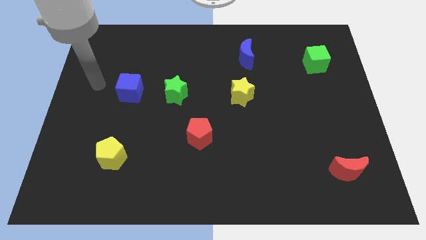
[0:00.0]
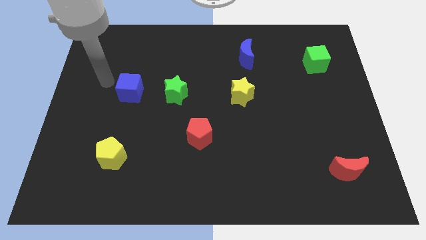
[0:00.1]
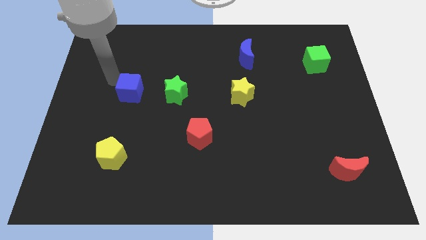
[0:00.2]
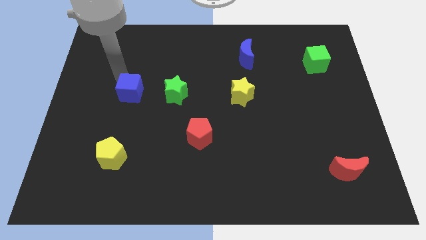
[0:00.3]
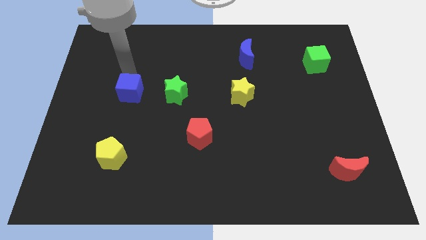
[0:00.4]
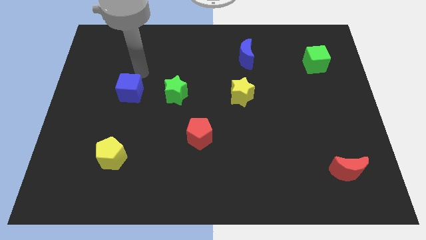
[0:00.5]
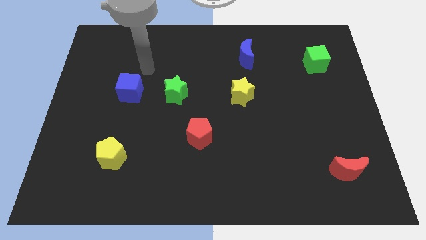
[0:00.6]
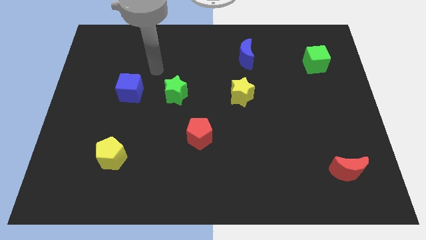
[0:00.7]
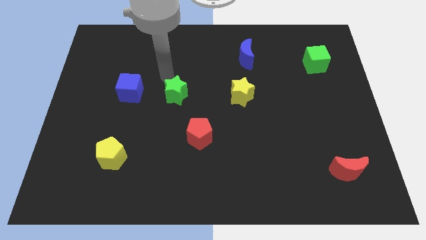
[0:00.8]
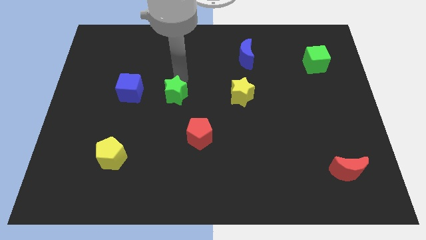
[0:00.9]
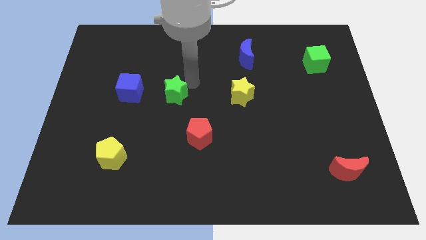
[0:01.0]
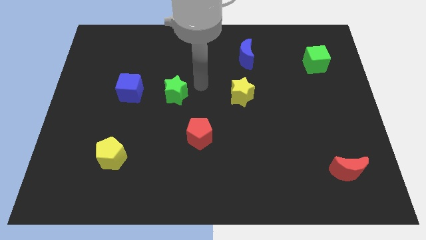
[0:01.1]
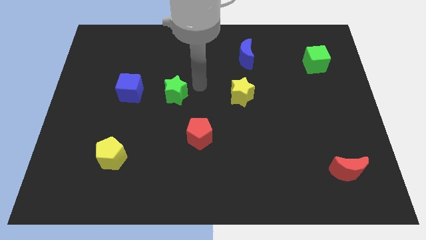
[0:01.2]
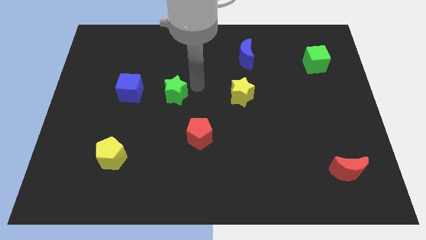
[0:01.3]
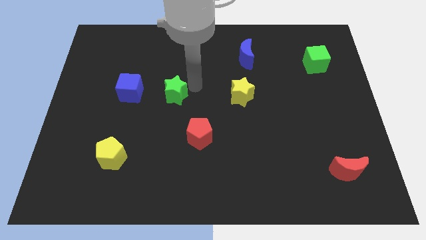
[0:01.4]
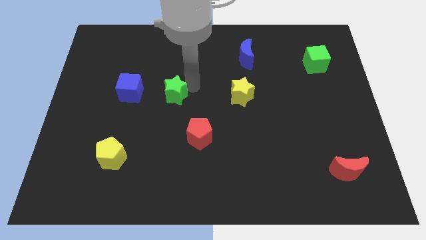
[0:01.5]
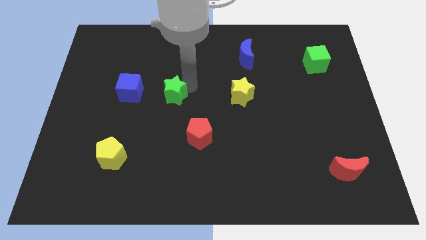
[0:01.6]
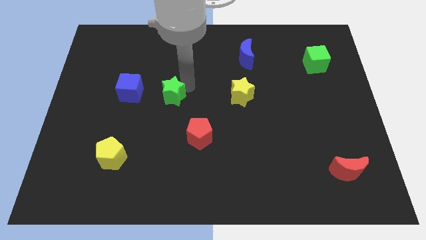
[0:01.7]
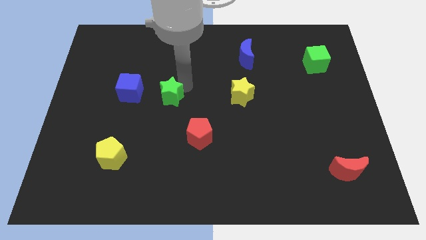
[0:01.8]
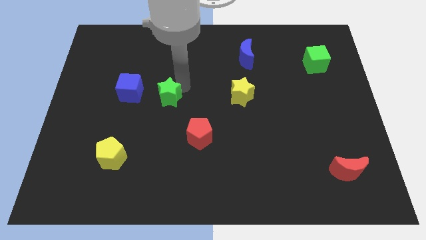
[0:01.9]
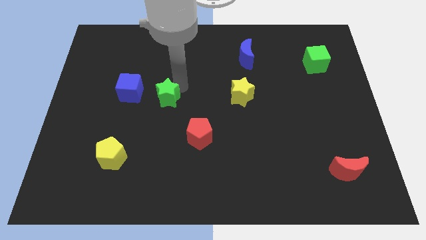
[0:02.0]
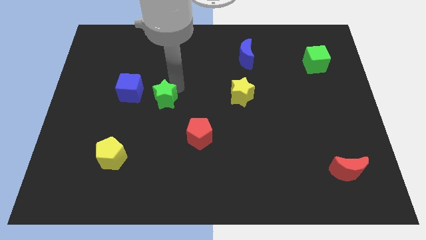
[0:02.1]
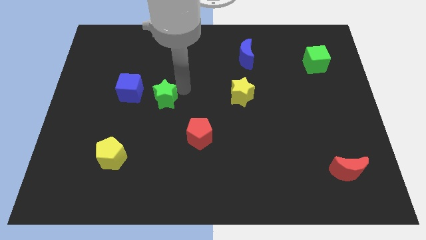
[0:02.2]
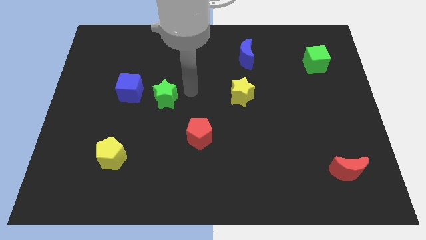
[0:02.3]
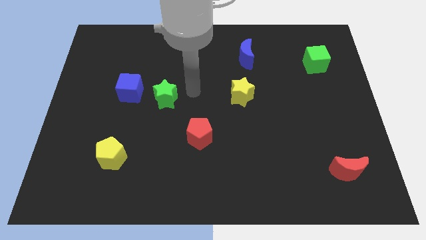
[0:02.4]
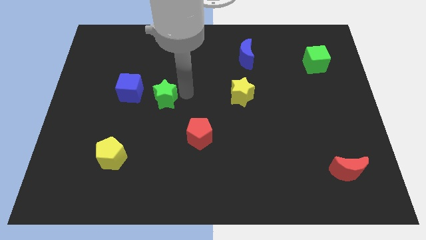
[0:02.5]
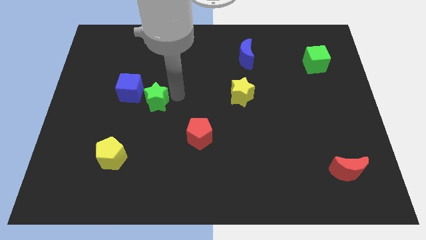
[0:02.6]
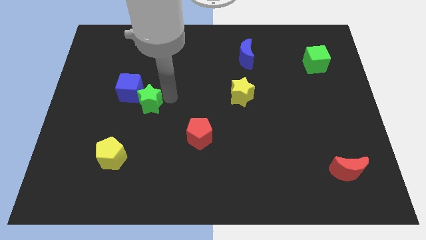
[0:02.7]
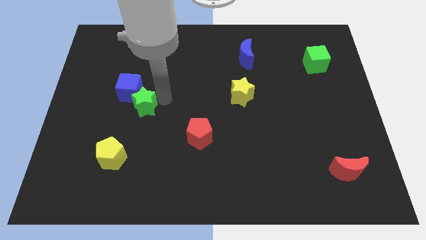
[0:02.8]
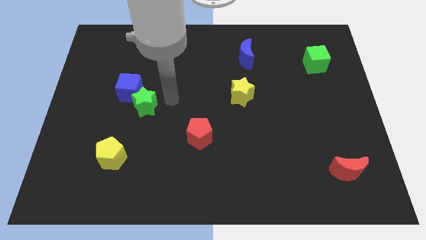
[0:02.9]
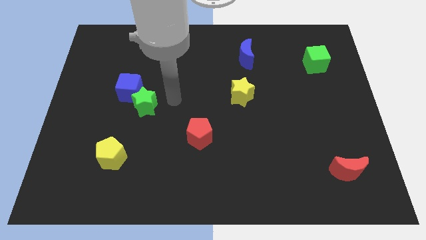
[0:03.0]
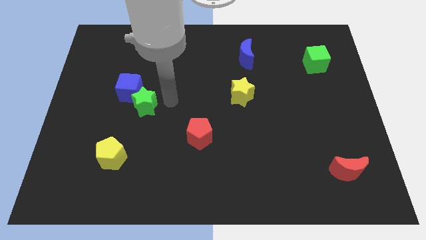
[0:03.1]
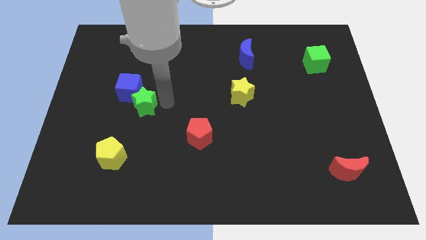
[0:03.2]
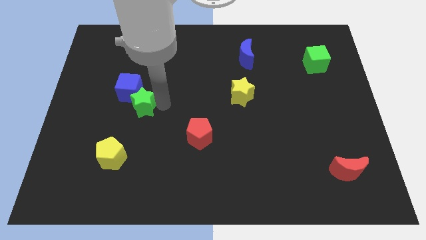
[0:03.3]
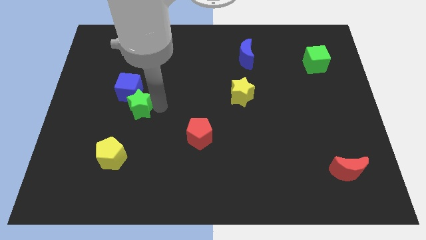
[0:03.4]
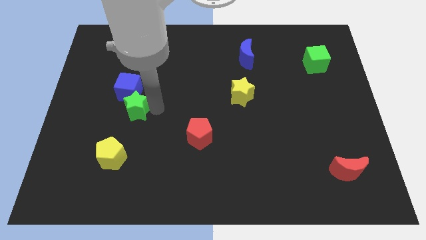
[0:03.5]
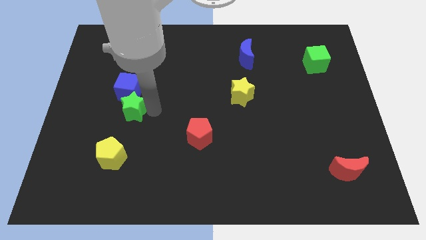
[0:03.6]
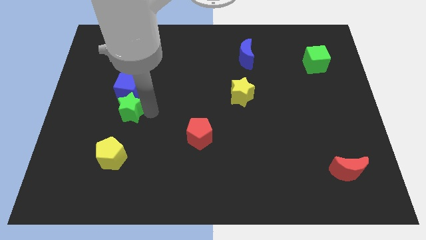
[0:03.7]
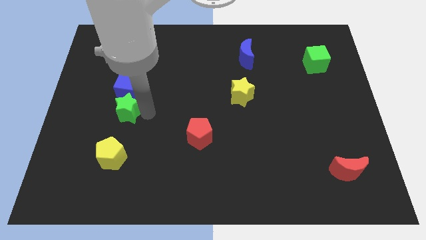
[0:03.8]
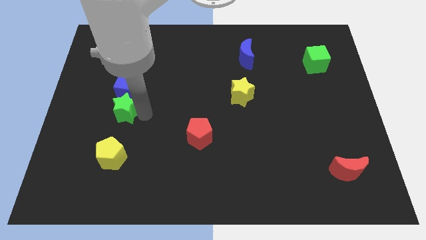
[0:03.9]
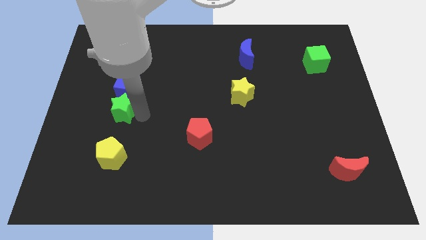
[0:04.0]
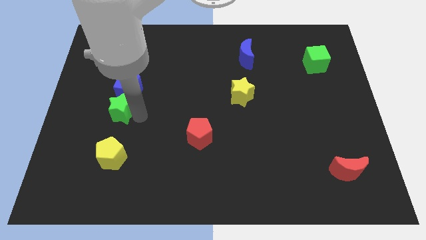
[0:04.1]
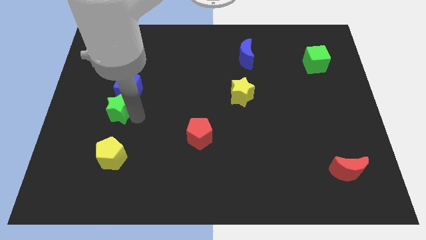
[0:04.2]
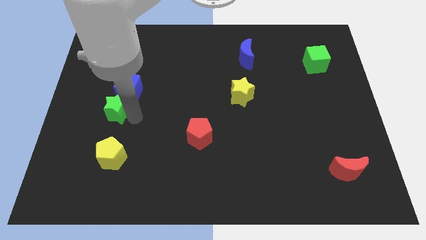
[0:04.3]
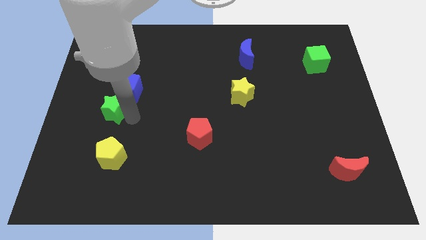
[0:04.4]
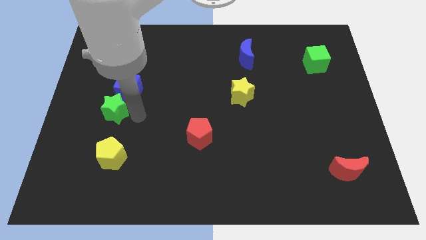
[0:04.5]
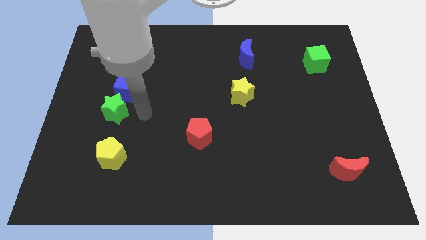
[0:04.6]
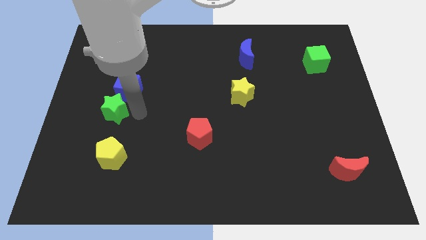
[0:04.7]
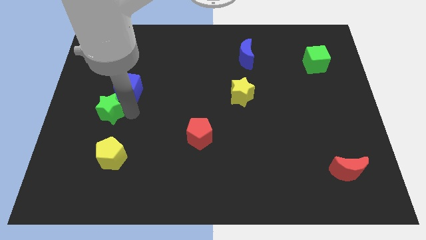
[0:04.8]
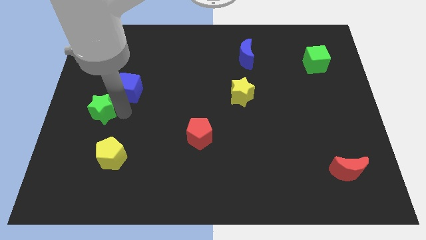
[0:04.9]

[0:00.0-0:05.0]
put the green star to the left side of the board

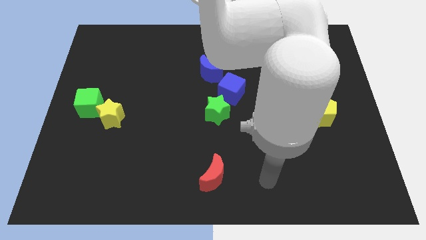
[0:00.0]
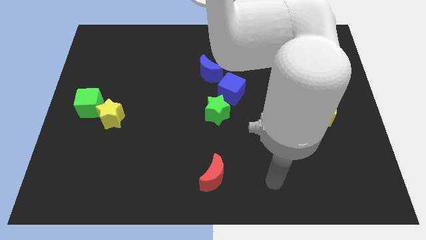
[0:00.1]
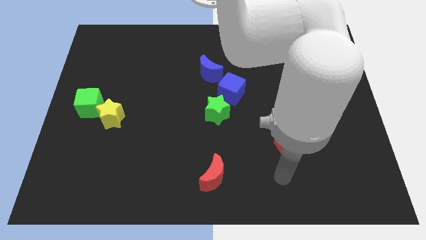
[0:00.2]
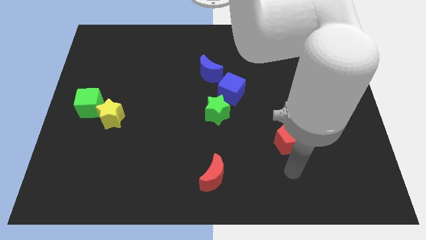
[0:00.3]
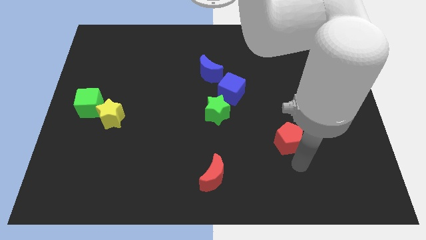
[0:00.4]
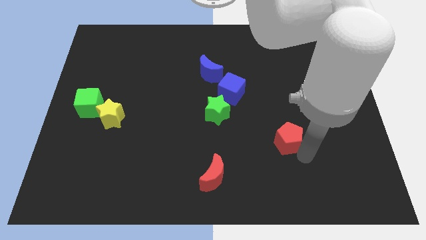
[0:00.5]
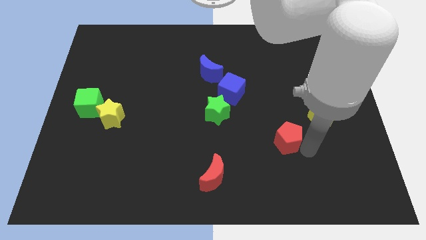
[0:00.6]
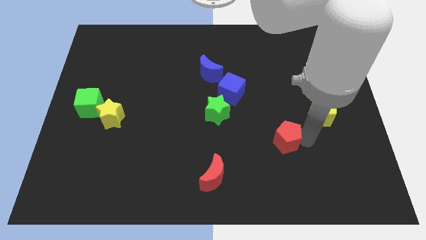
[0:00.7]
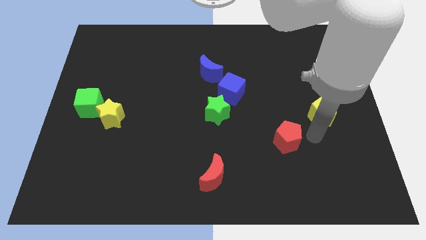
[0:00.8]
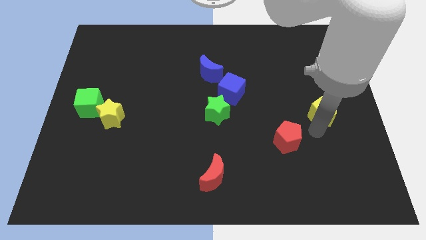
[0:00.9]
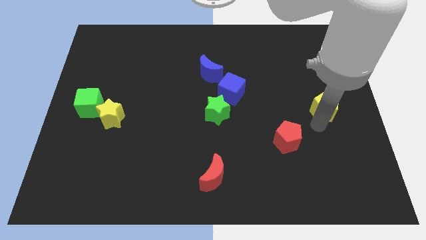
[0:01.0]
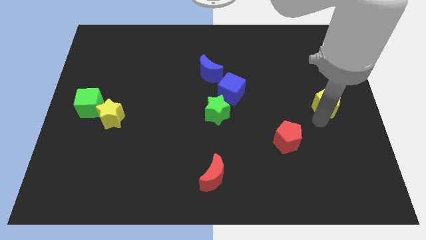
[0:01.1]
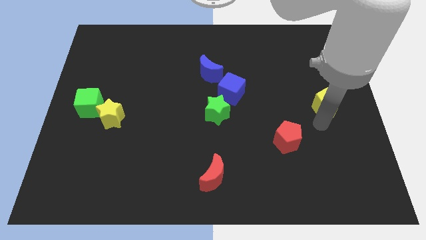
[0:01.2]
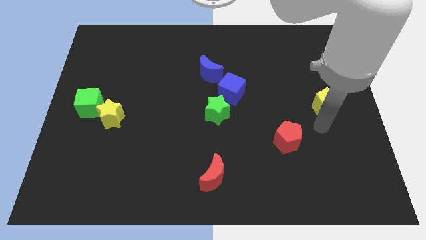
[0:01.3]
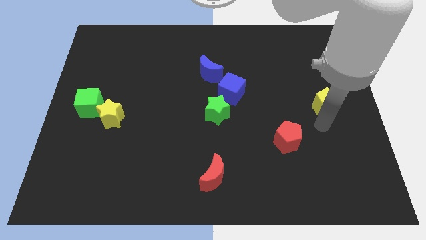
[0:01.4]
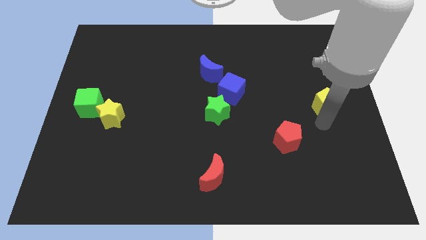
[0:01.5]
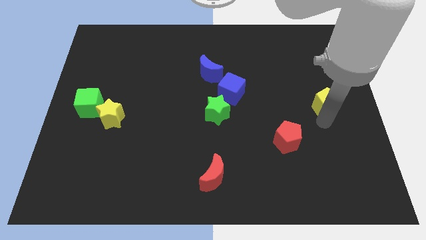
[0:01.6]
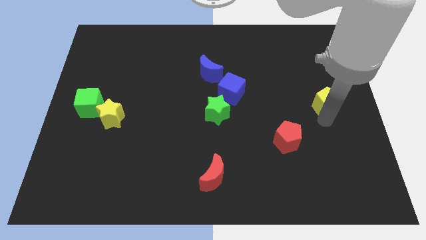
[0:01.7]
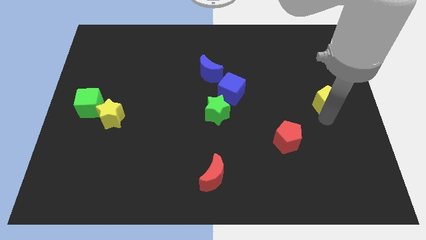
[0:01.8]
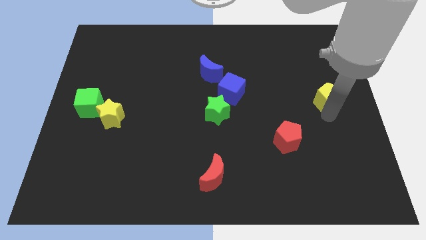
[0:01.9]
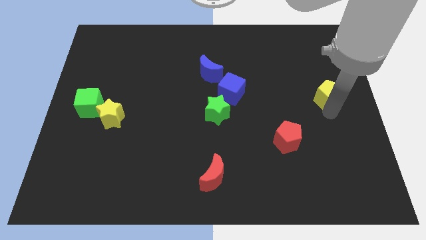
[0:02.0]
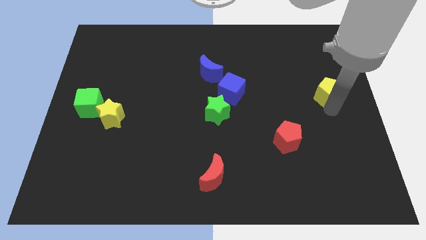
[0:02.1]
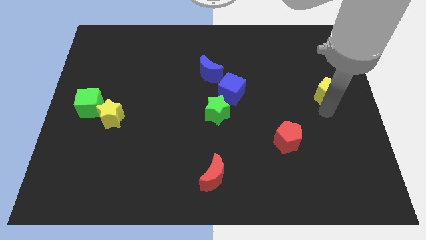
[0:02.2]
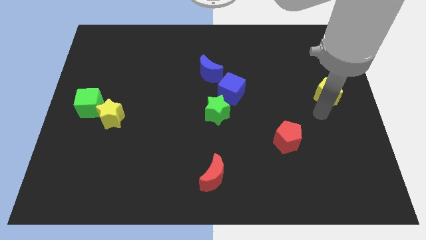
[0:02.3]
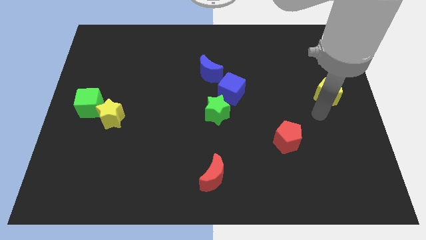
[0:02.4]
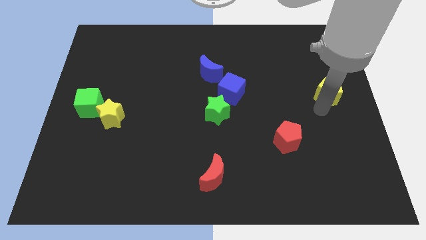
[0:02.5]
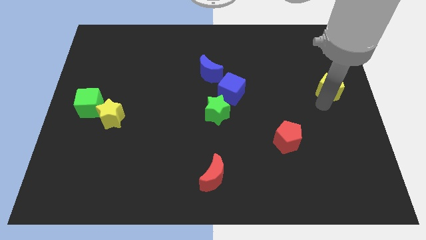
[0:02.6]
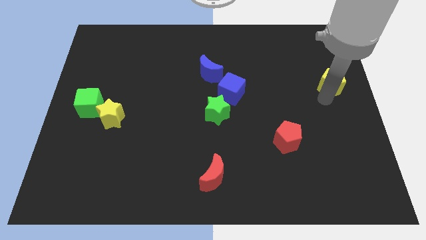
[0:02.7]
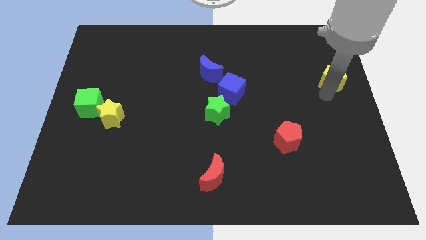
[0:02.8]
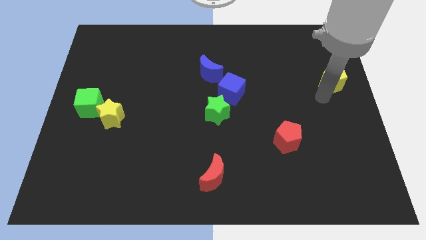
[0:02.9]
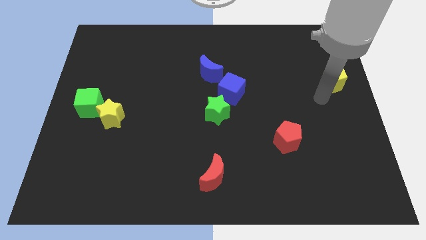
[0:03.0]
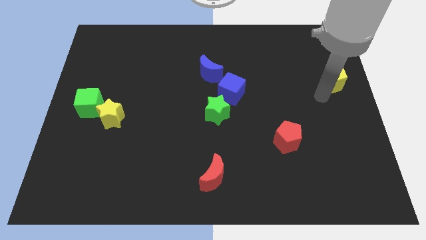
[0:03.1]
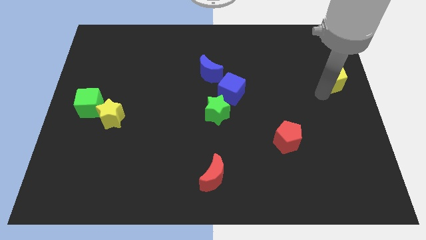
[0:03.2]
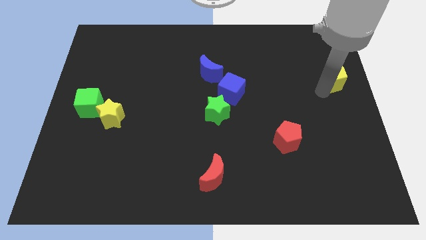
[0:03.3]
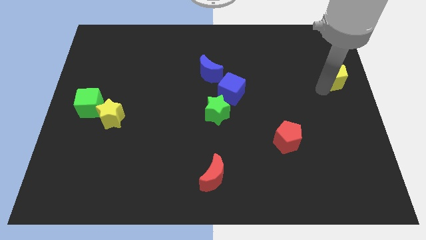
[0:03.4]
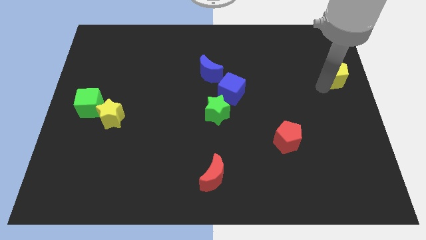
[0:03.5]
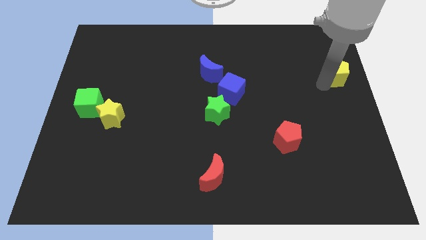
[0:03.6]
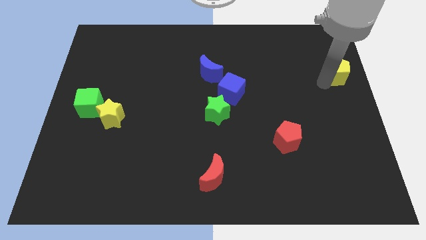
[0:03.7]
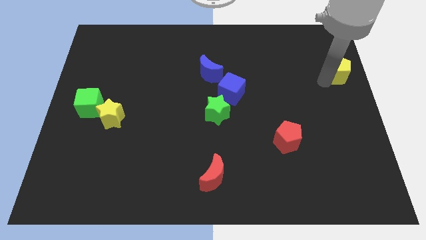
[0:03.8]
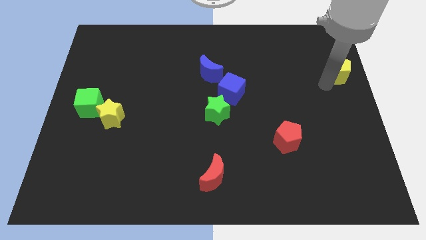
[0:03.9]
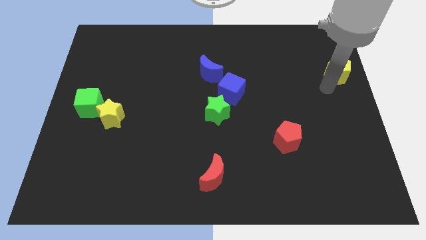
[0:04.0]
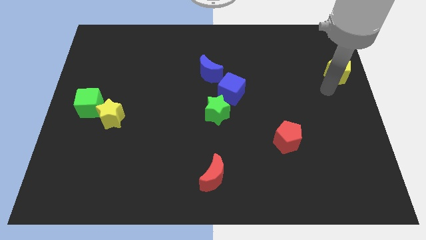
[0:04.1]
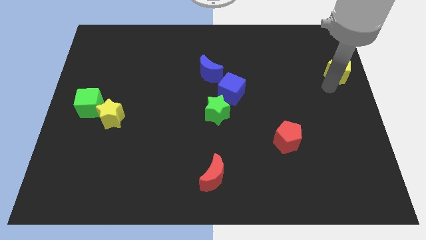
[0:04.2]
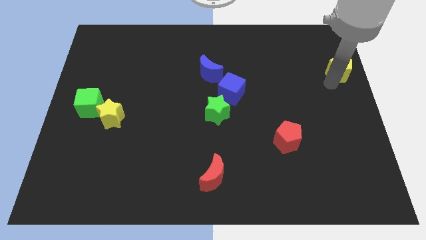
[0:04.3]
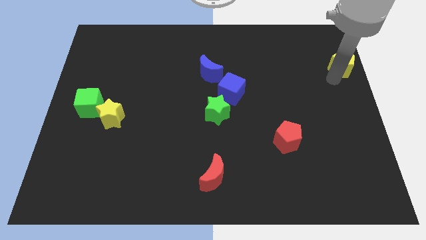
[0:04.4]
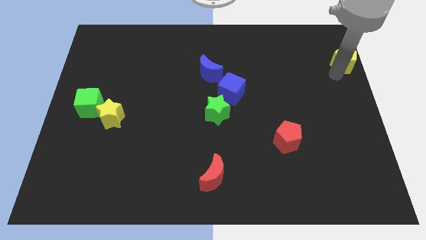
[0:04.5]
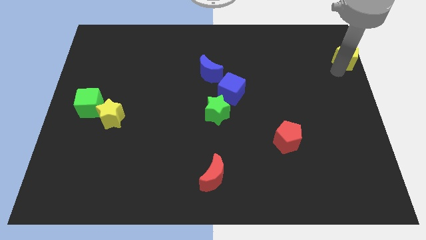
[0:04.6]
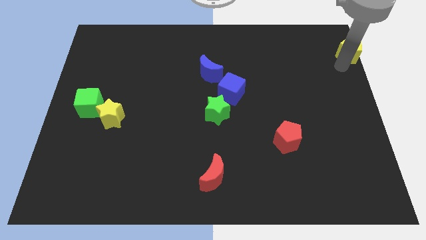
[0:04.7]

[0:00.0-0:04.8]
put the yellow pentagon to the top right corner
